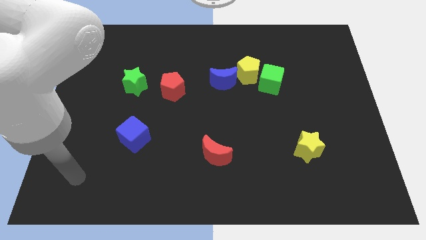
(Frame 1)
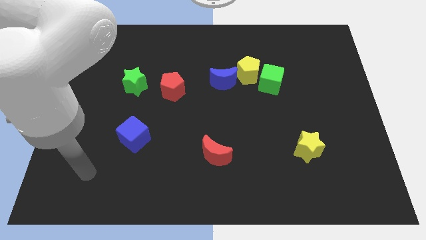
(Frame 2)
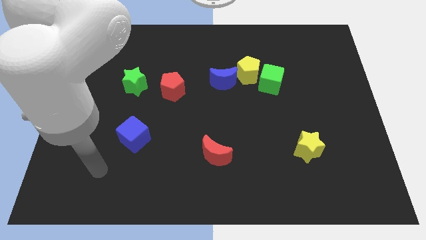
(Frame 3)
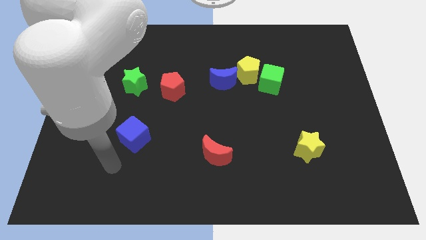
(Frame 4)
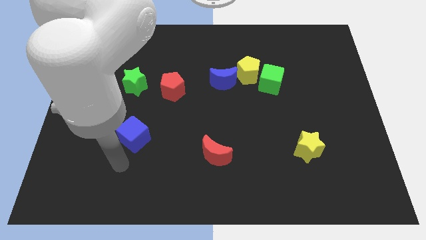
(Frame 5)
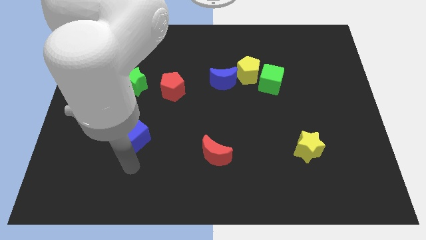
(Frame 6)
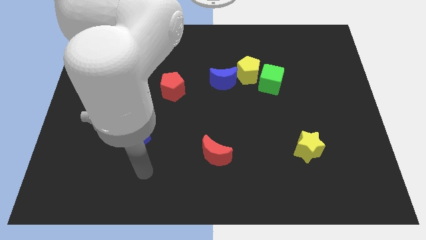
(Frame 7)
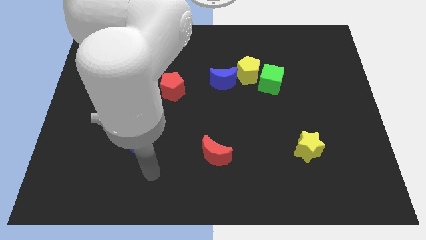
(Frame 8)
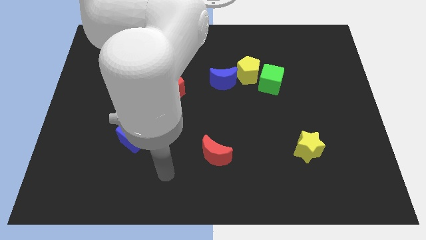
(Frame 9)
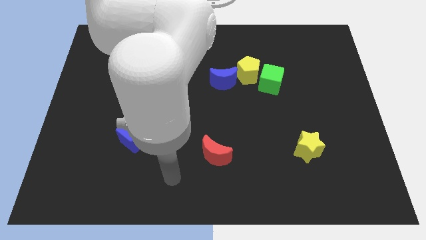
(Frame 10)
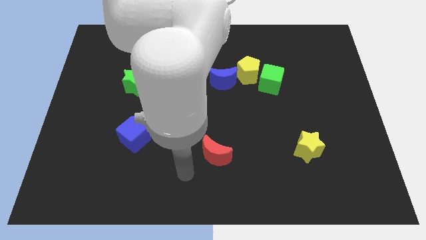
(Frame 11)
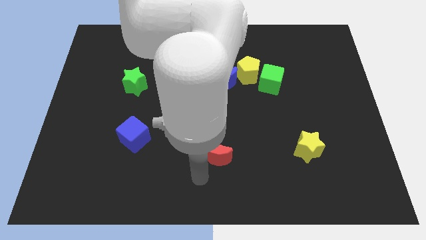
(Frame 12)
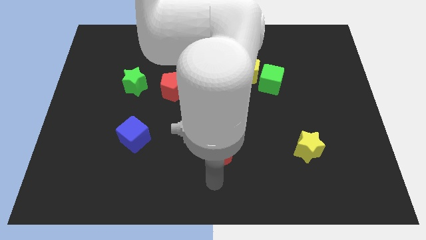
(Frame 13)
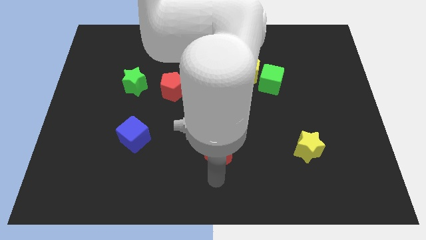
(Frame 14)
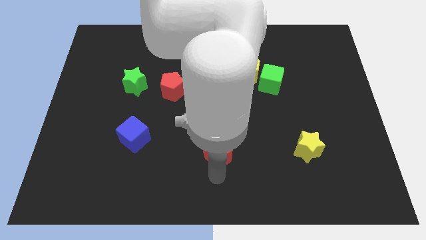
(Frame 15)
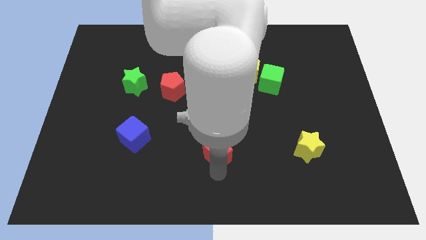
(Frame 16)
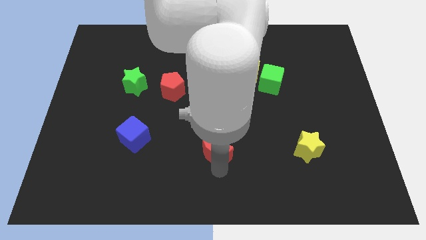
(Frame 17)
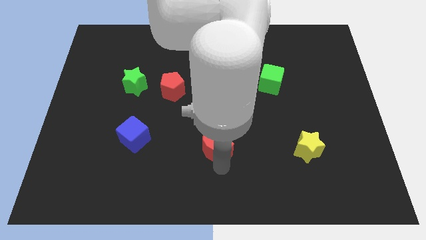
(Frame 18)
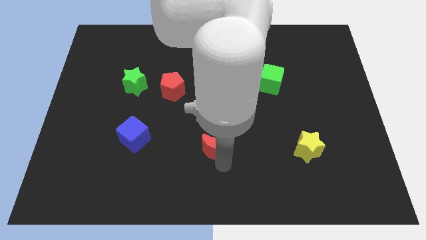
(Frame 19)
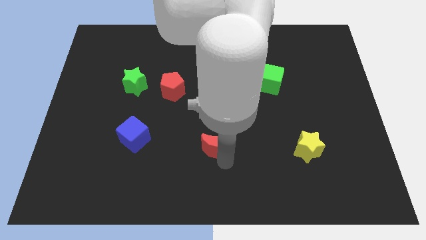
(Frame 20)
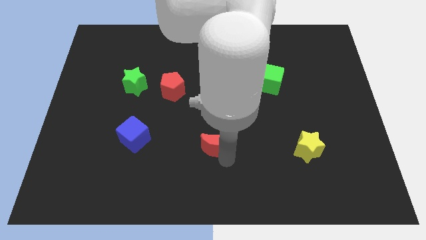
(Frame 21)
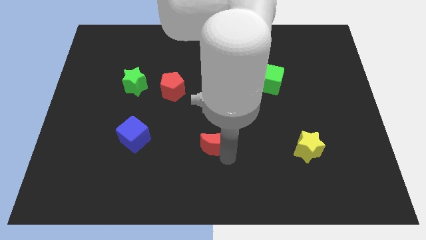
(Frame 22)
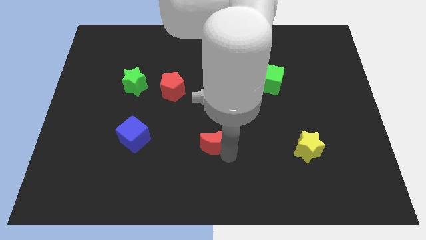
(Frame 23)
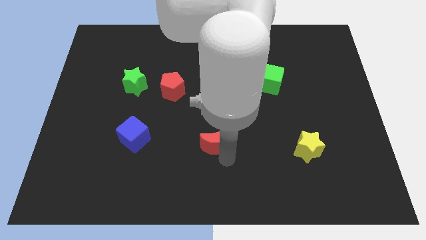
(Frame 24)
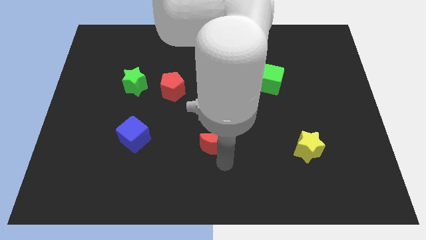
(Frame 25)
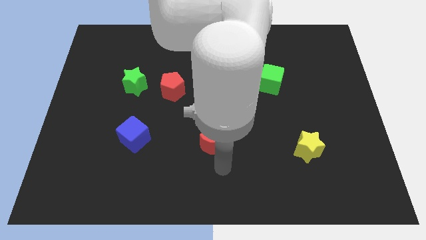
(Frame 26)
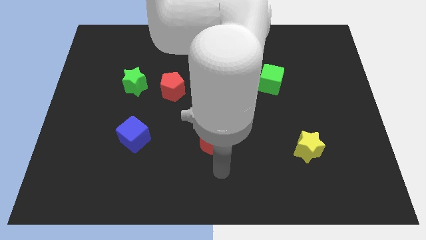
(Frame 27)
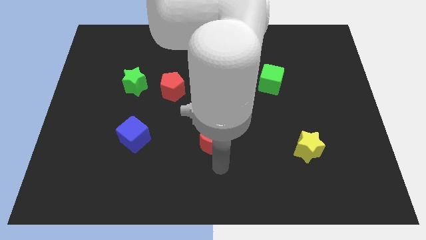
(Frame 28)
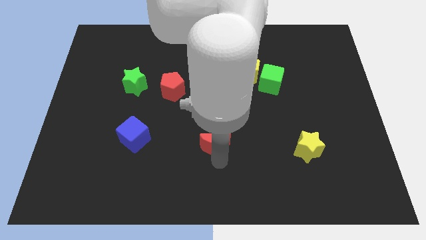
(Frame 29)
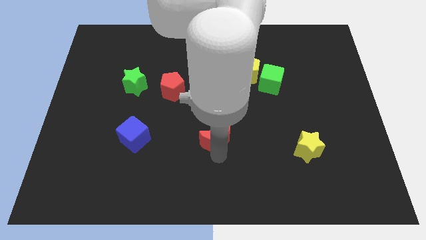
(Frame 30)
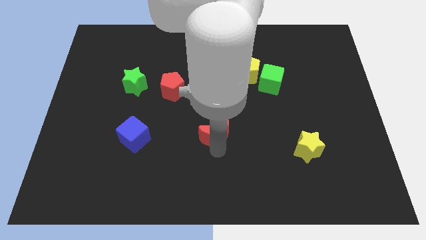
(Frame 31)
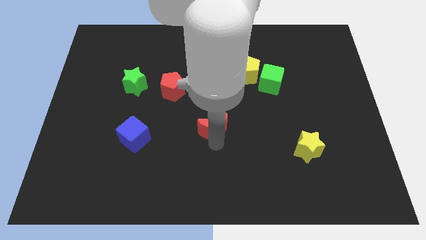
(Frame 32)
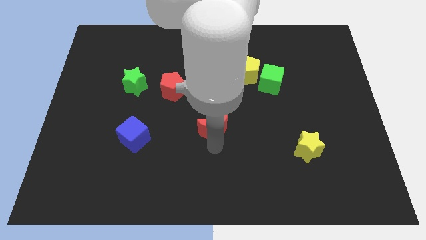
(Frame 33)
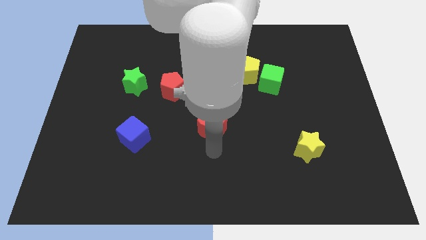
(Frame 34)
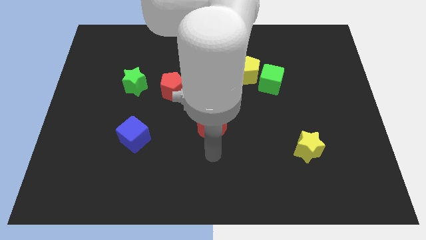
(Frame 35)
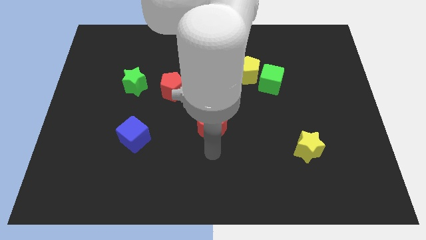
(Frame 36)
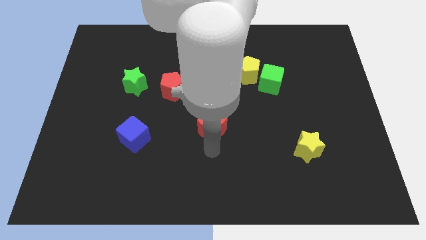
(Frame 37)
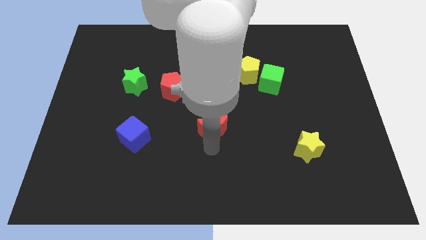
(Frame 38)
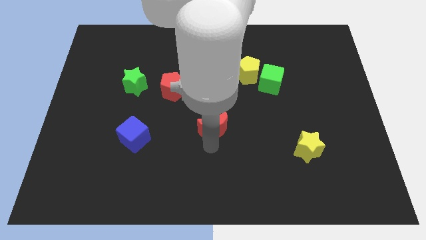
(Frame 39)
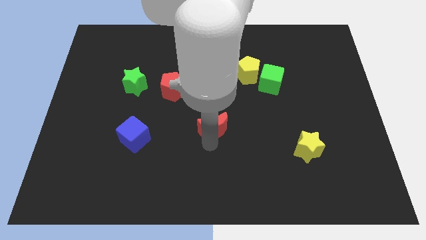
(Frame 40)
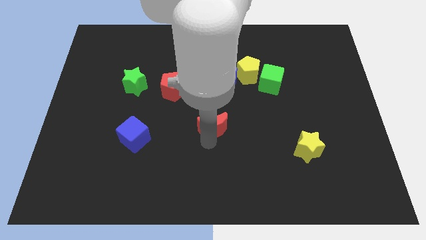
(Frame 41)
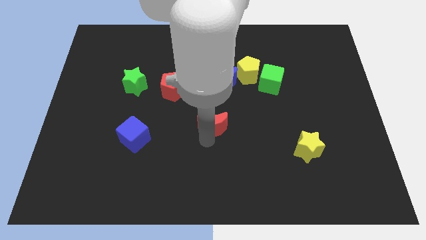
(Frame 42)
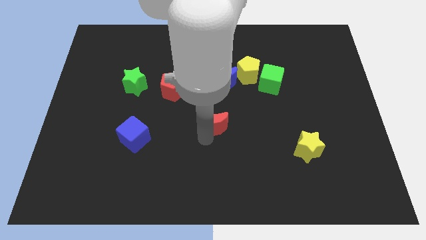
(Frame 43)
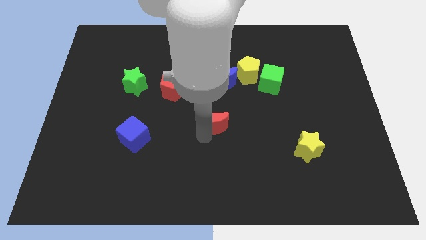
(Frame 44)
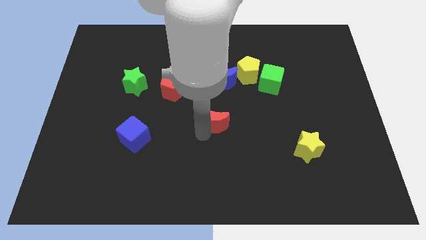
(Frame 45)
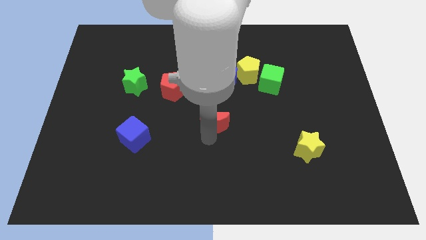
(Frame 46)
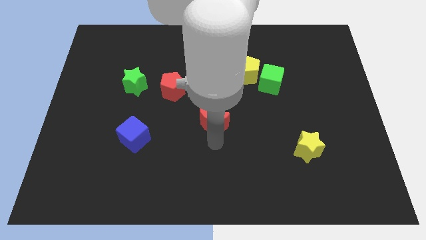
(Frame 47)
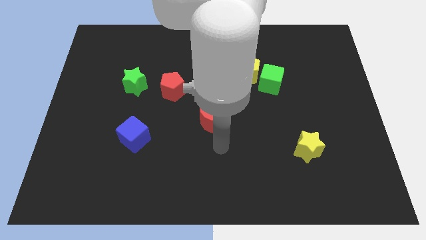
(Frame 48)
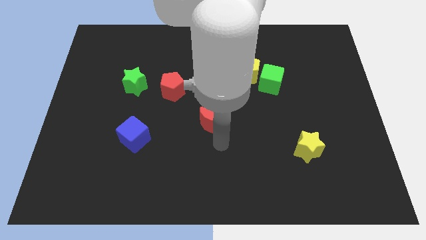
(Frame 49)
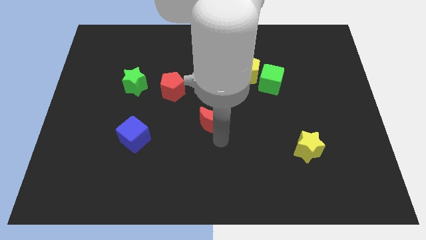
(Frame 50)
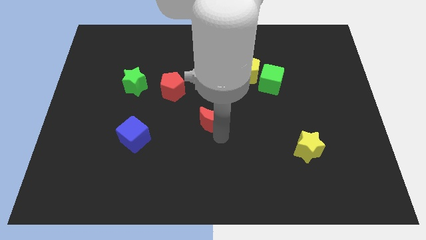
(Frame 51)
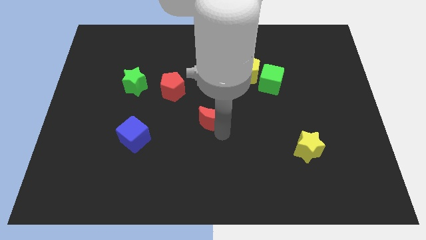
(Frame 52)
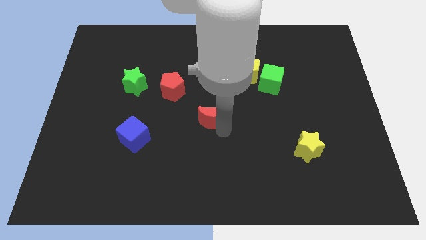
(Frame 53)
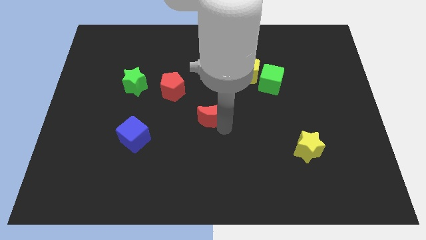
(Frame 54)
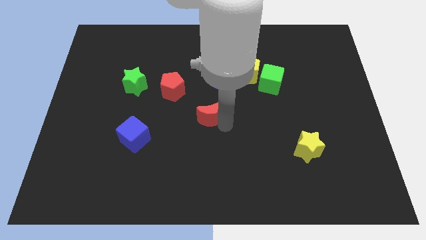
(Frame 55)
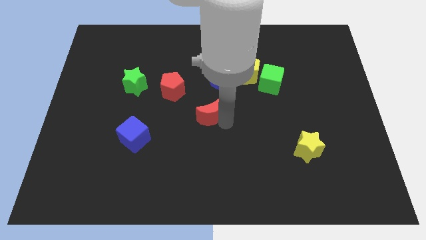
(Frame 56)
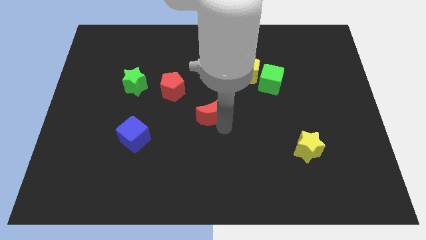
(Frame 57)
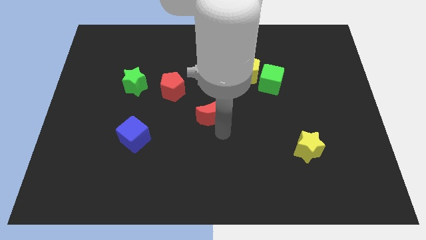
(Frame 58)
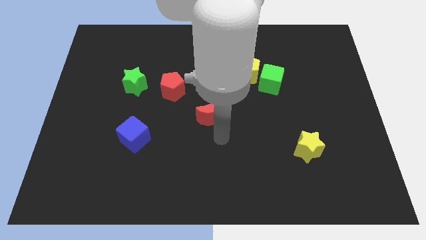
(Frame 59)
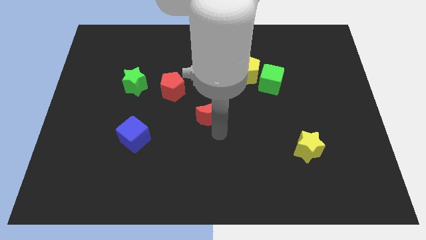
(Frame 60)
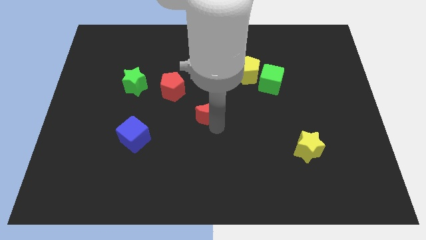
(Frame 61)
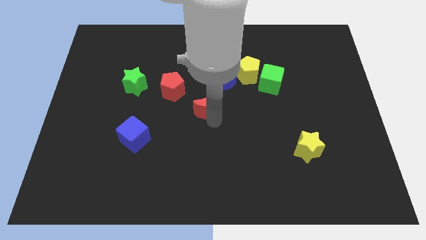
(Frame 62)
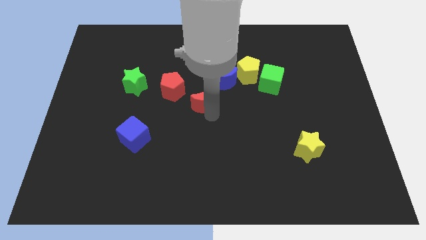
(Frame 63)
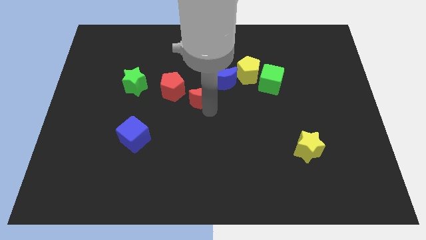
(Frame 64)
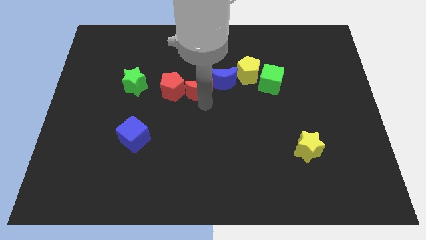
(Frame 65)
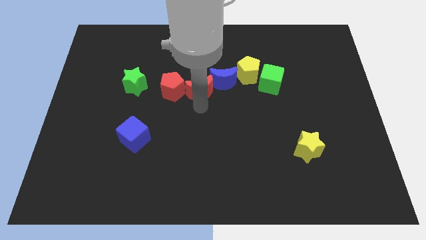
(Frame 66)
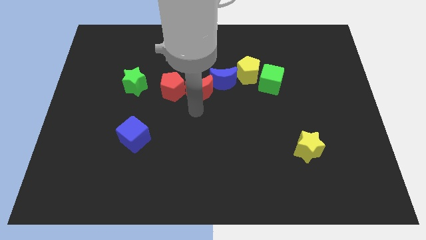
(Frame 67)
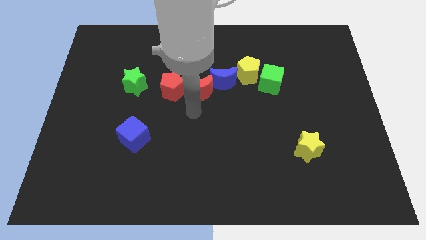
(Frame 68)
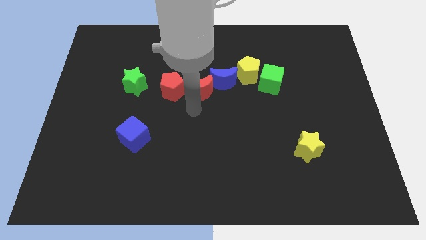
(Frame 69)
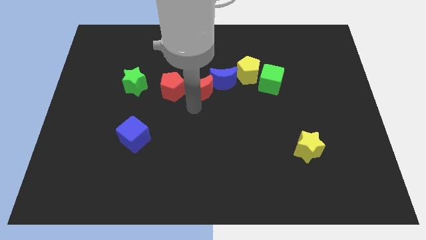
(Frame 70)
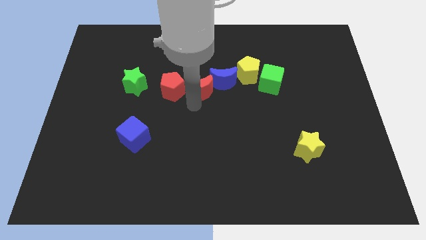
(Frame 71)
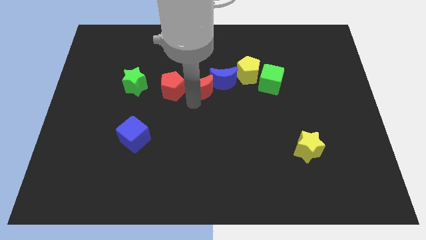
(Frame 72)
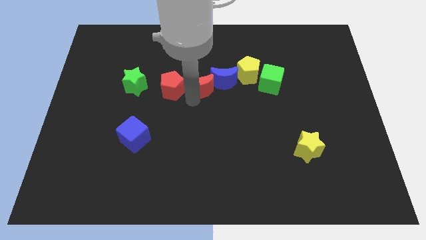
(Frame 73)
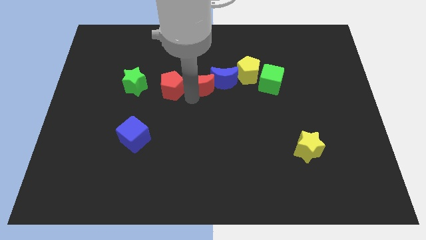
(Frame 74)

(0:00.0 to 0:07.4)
slide the red moon to the left of the yellow pentagon
